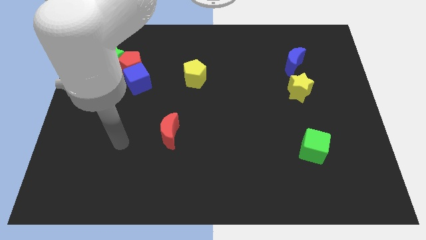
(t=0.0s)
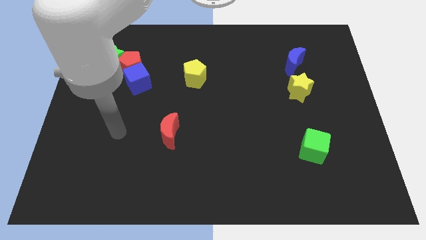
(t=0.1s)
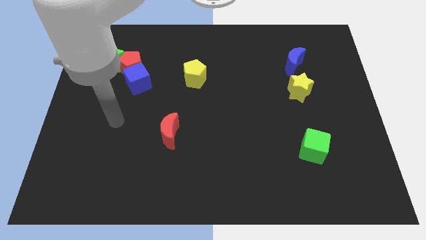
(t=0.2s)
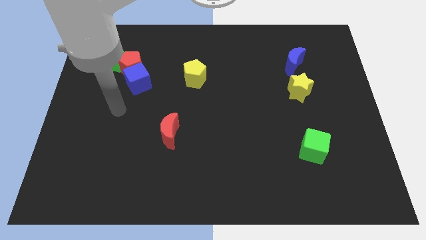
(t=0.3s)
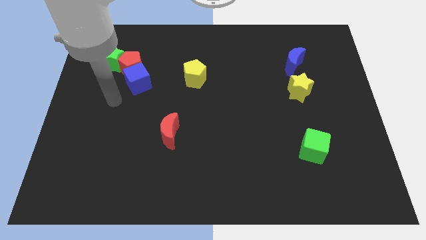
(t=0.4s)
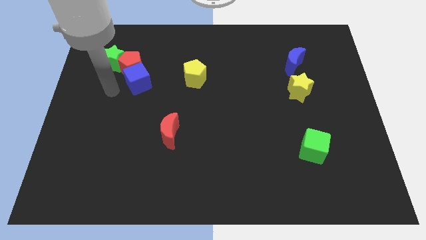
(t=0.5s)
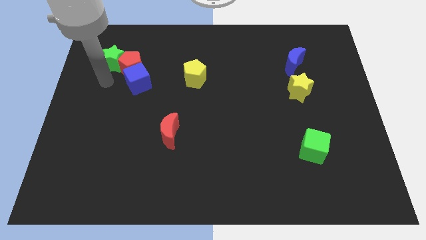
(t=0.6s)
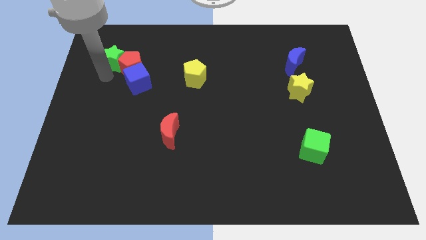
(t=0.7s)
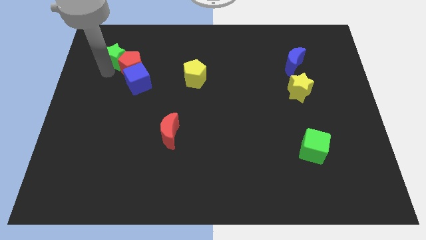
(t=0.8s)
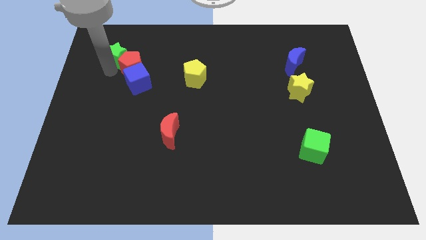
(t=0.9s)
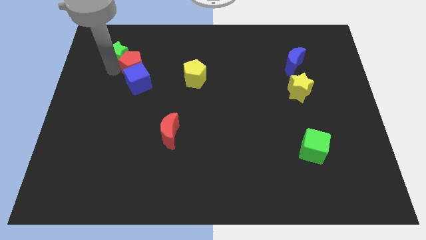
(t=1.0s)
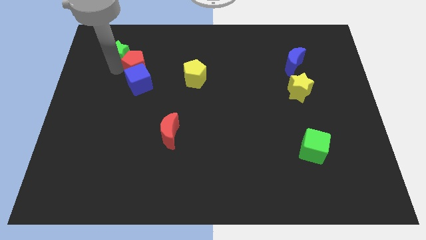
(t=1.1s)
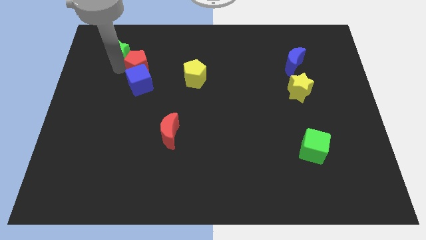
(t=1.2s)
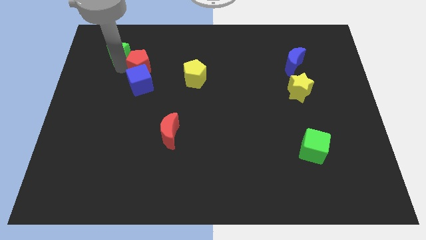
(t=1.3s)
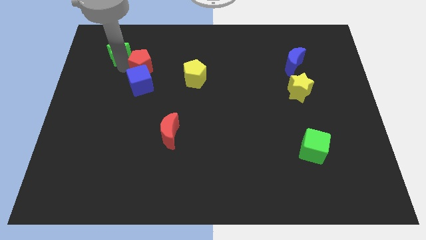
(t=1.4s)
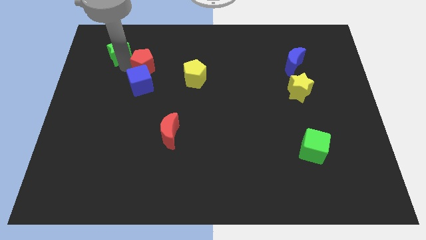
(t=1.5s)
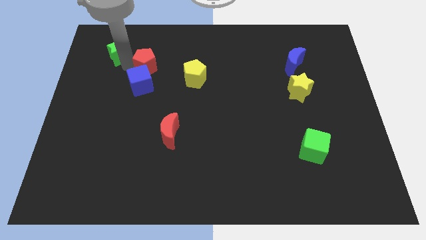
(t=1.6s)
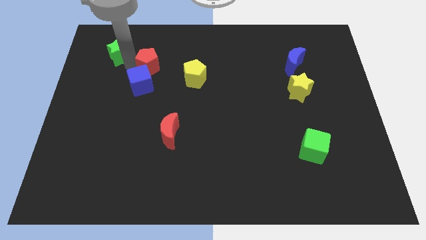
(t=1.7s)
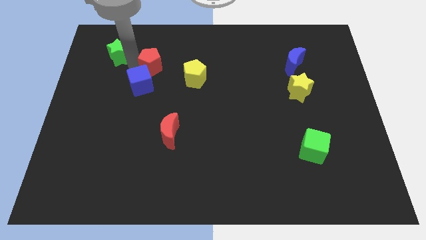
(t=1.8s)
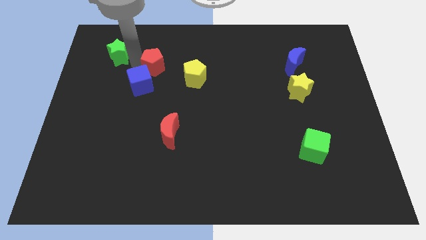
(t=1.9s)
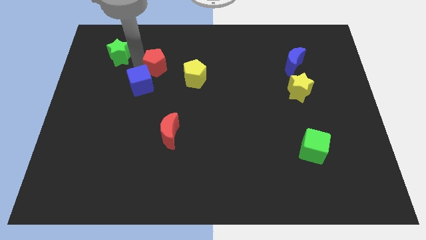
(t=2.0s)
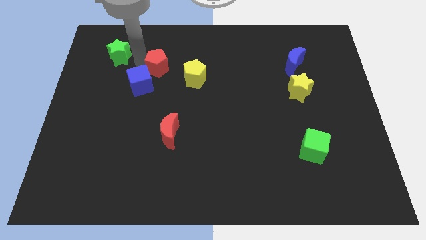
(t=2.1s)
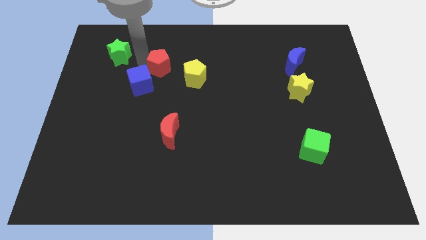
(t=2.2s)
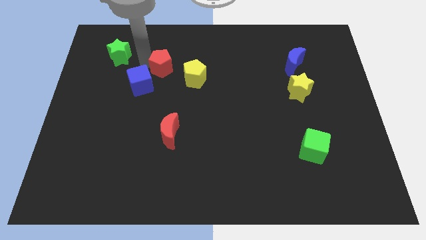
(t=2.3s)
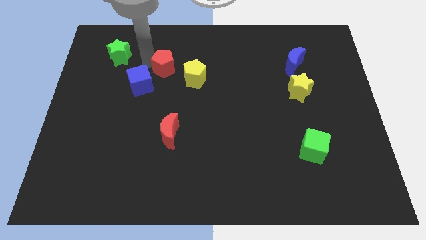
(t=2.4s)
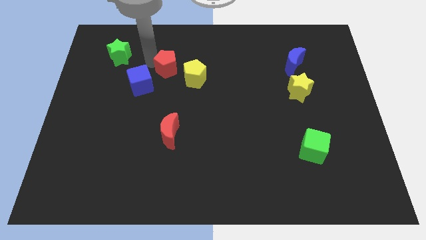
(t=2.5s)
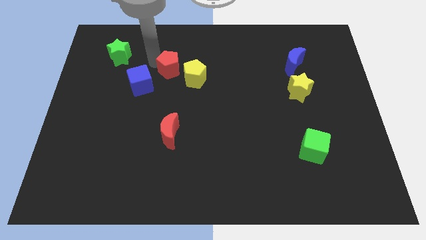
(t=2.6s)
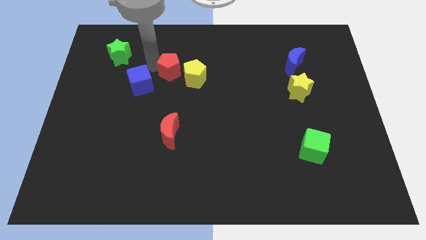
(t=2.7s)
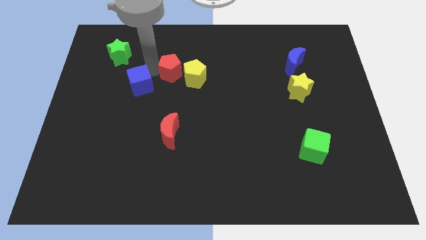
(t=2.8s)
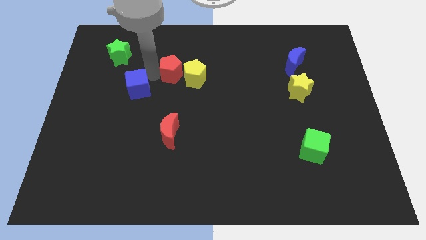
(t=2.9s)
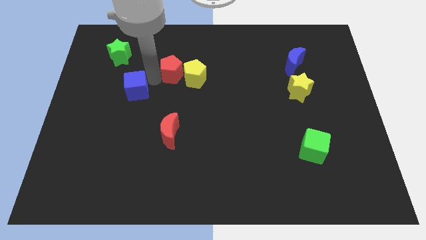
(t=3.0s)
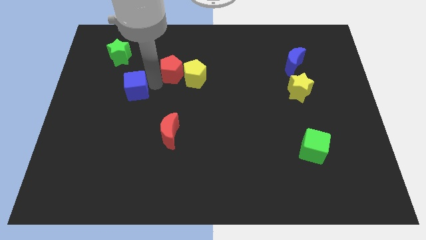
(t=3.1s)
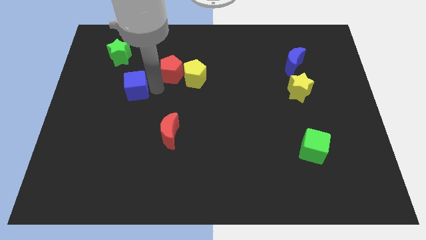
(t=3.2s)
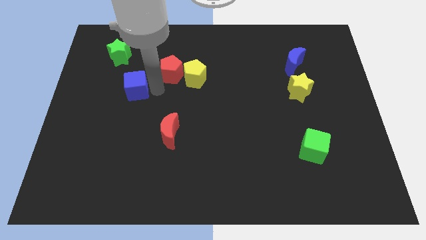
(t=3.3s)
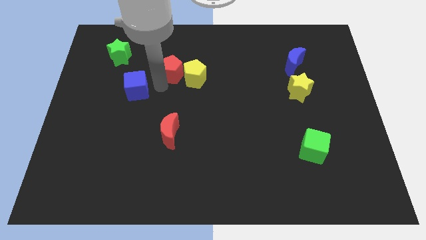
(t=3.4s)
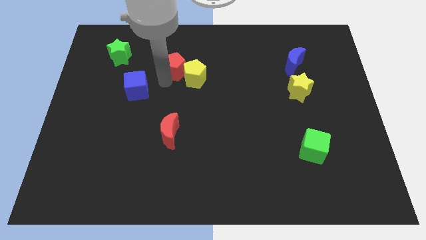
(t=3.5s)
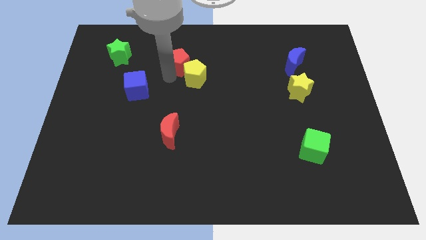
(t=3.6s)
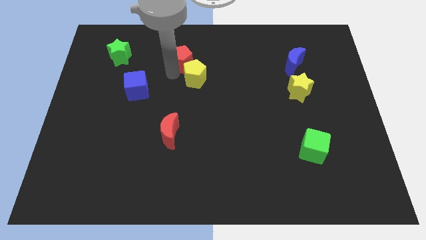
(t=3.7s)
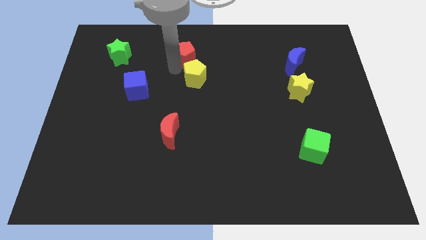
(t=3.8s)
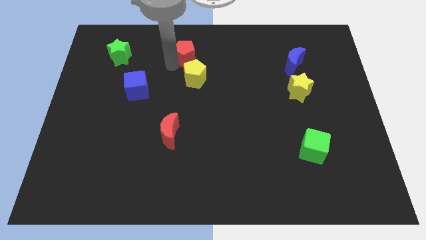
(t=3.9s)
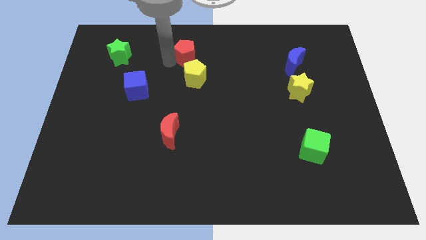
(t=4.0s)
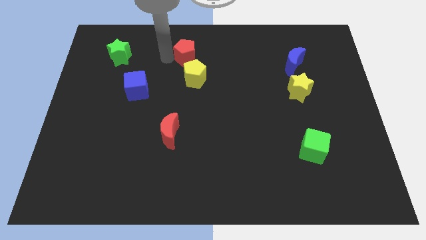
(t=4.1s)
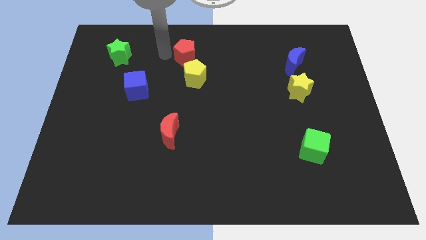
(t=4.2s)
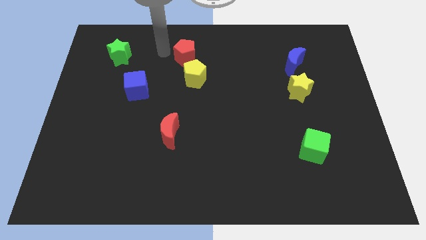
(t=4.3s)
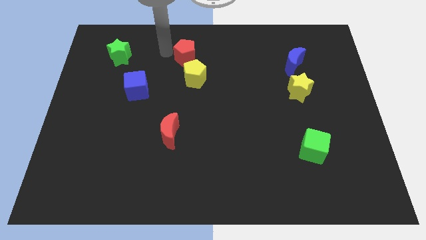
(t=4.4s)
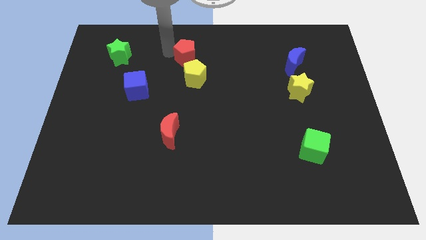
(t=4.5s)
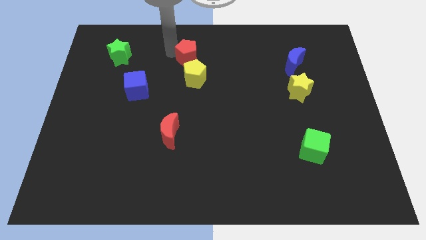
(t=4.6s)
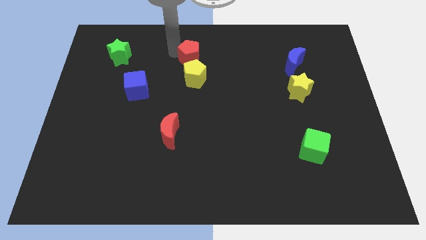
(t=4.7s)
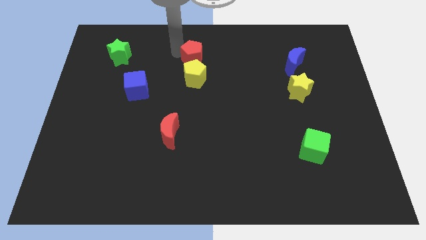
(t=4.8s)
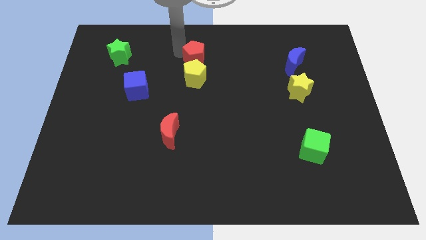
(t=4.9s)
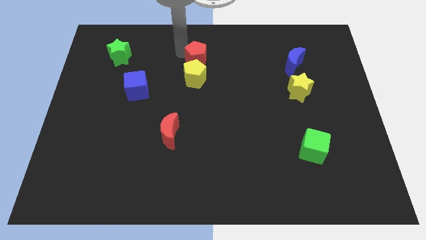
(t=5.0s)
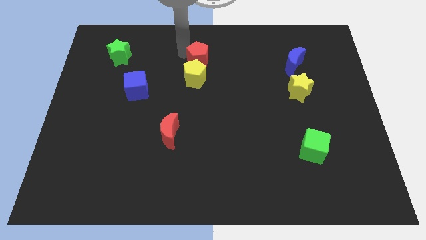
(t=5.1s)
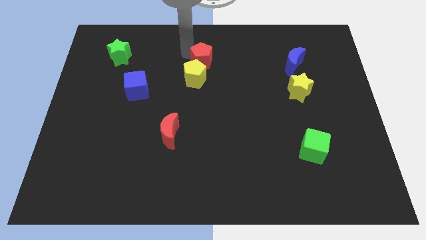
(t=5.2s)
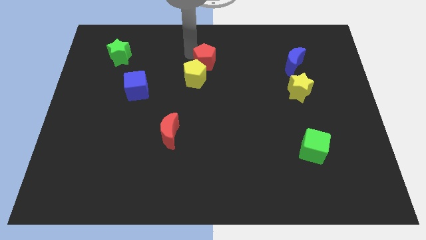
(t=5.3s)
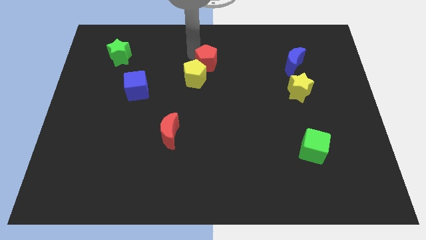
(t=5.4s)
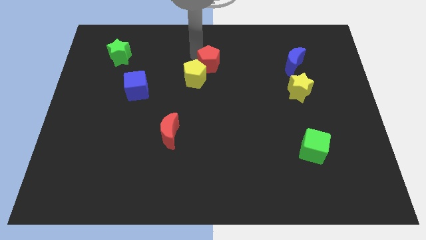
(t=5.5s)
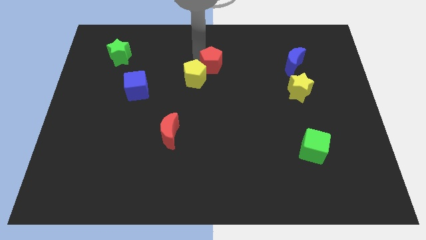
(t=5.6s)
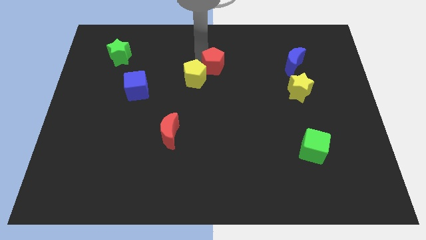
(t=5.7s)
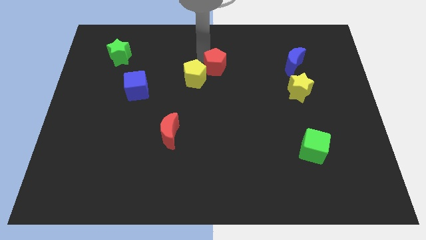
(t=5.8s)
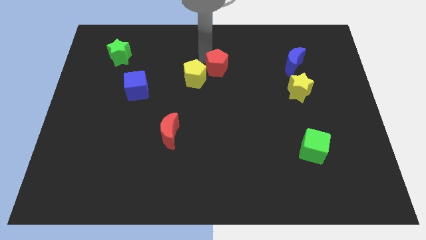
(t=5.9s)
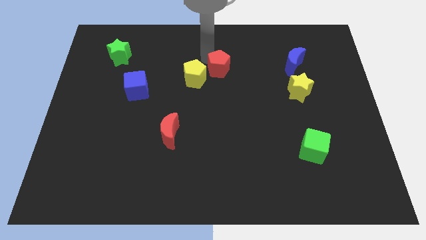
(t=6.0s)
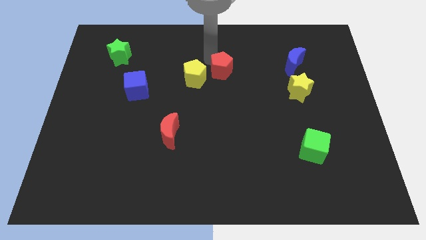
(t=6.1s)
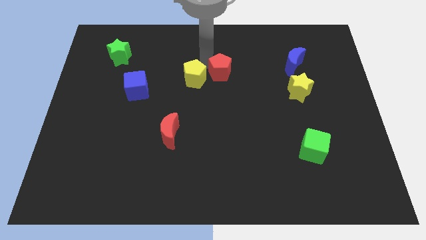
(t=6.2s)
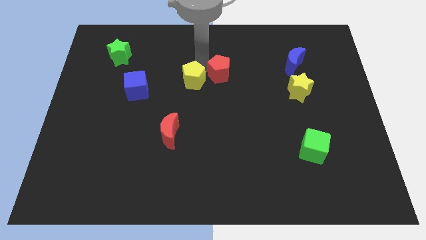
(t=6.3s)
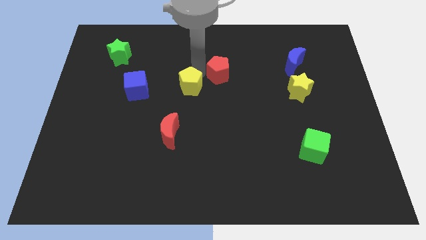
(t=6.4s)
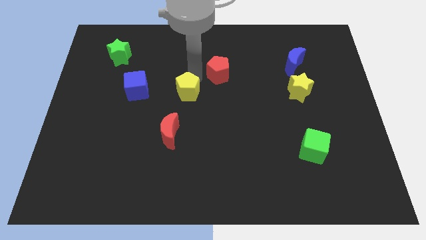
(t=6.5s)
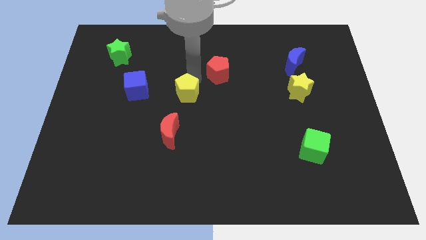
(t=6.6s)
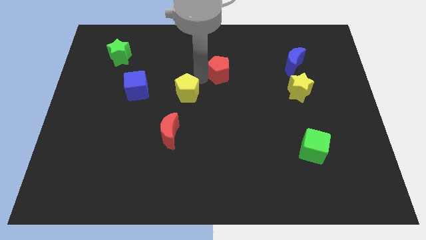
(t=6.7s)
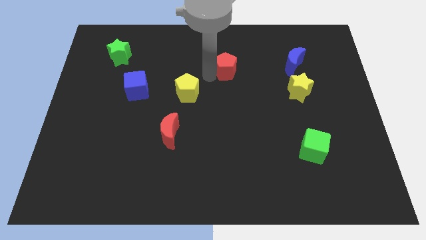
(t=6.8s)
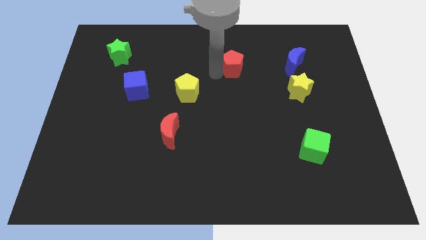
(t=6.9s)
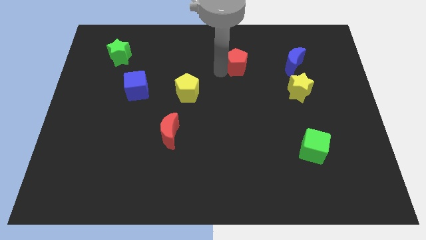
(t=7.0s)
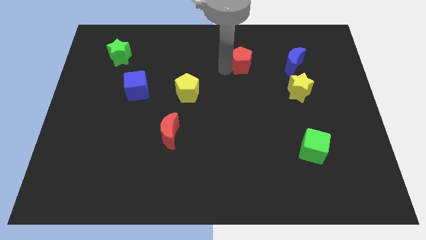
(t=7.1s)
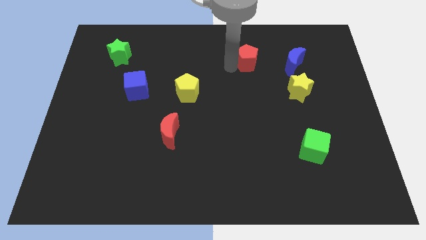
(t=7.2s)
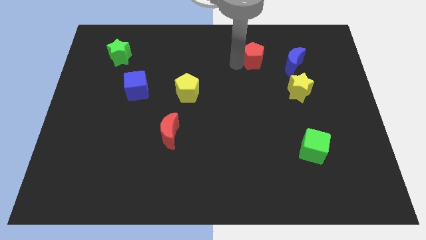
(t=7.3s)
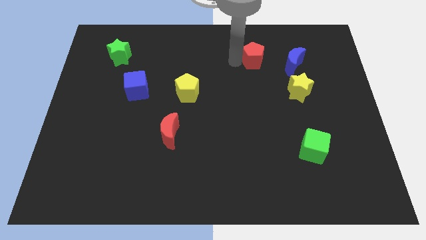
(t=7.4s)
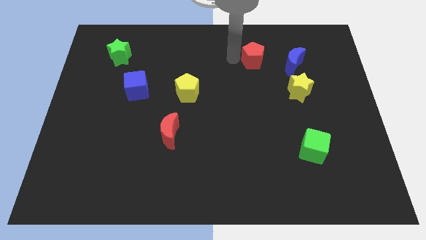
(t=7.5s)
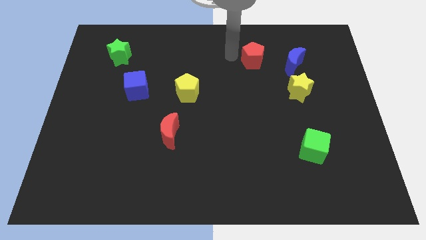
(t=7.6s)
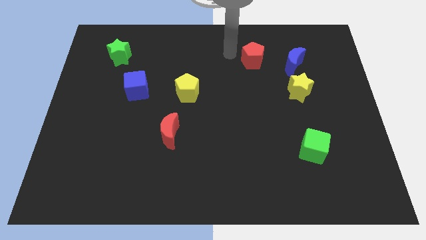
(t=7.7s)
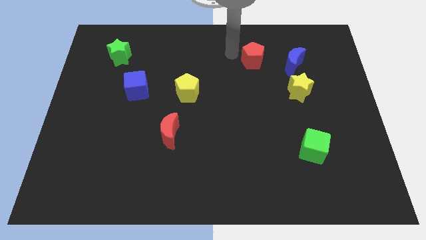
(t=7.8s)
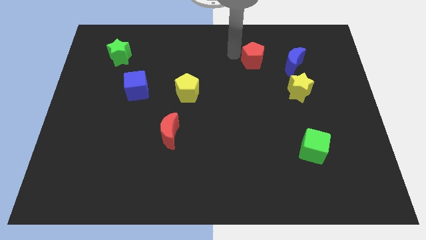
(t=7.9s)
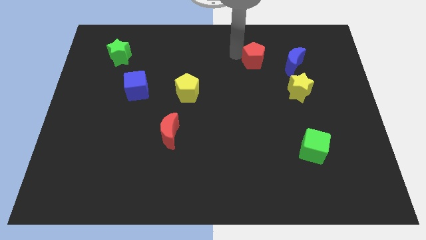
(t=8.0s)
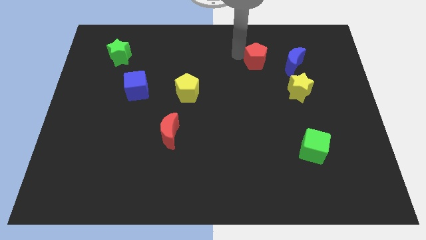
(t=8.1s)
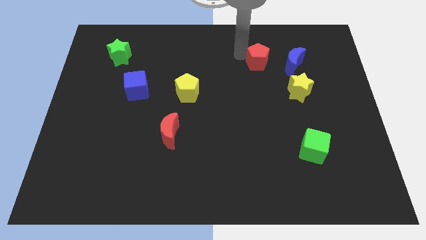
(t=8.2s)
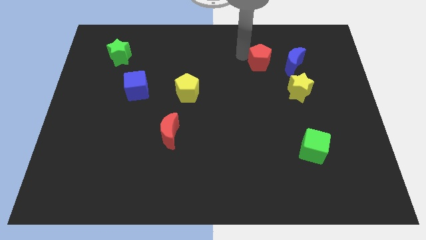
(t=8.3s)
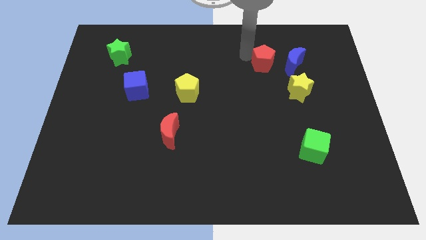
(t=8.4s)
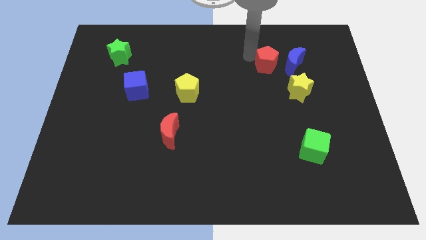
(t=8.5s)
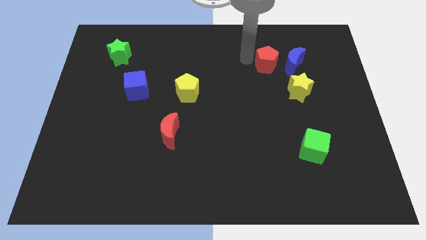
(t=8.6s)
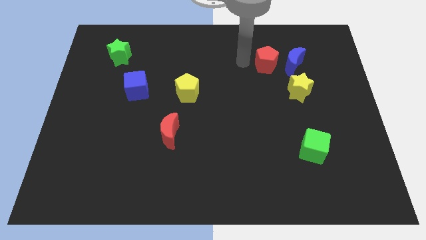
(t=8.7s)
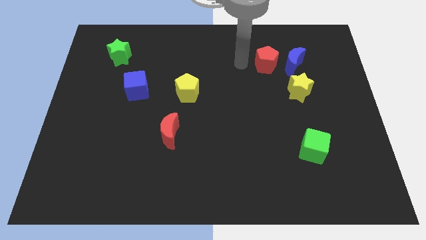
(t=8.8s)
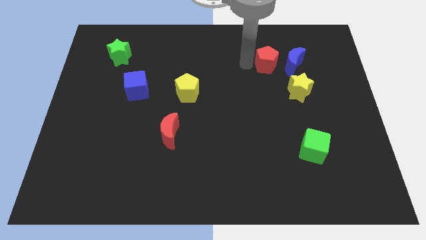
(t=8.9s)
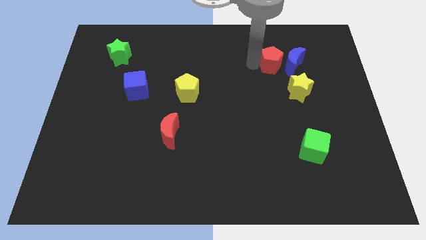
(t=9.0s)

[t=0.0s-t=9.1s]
push the red pentagon to the blue moon
